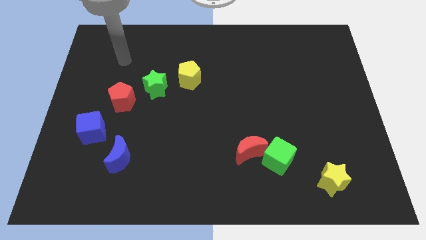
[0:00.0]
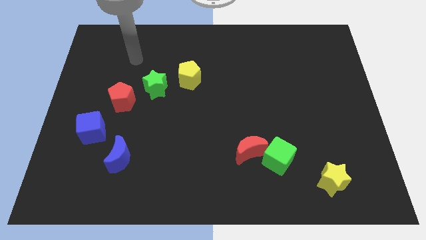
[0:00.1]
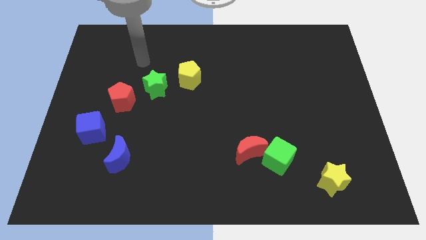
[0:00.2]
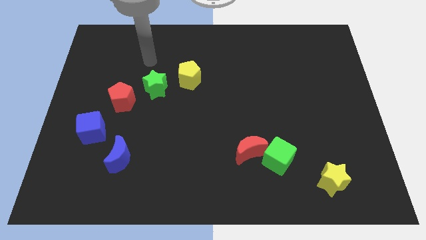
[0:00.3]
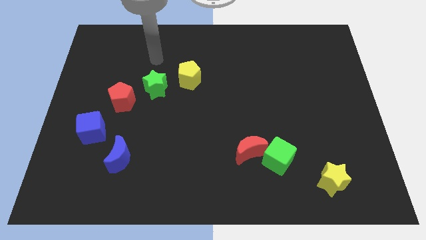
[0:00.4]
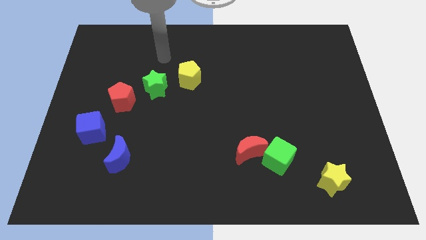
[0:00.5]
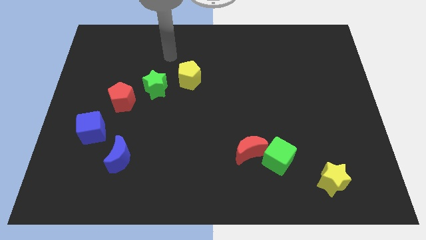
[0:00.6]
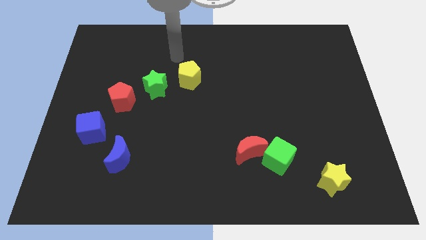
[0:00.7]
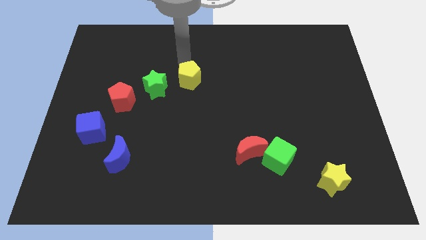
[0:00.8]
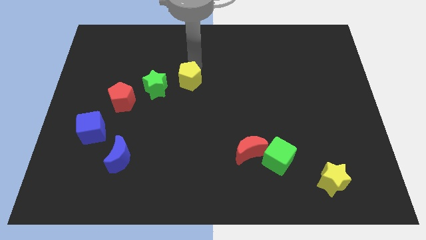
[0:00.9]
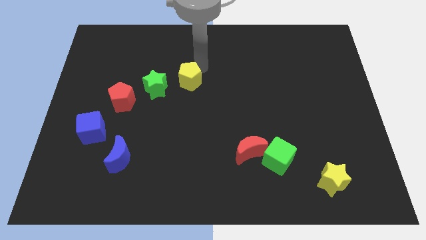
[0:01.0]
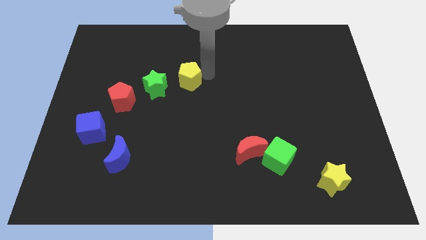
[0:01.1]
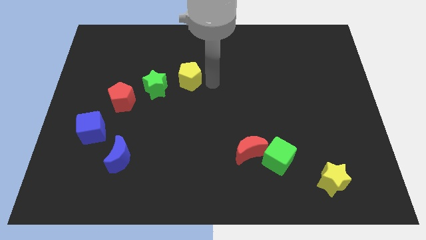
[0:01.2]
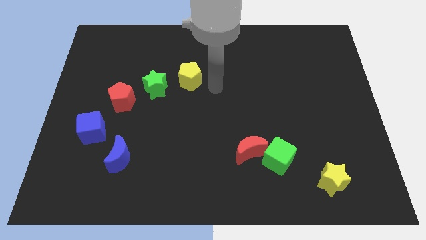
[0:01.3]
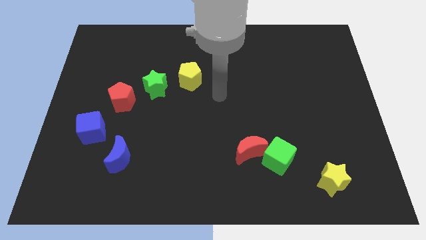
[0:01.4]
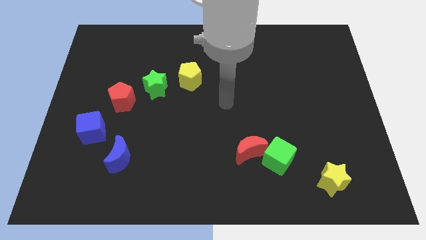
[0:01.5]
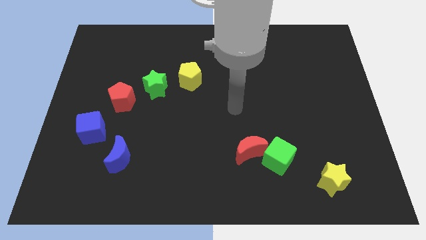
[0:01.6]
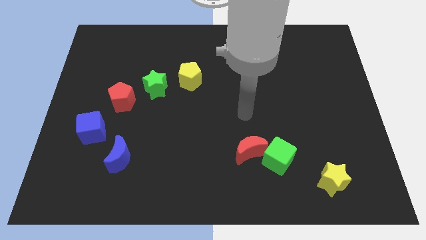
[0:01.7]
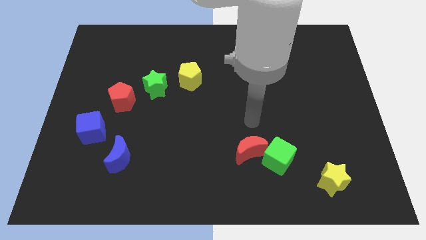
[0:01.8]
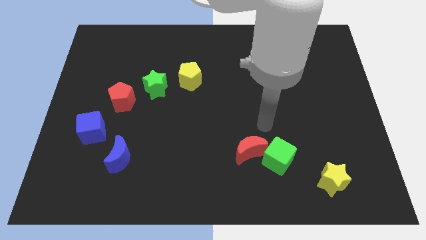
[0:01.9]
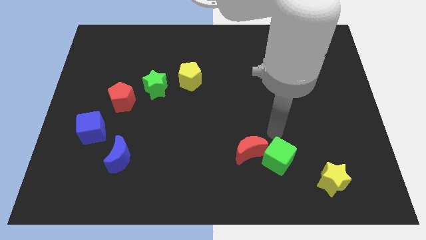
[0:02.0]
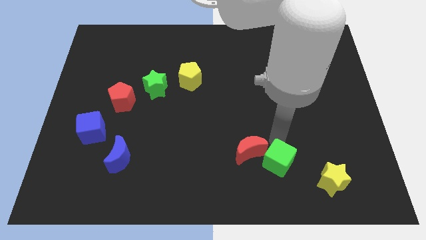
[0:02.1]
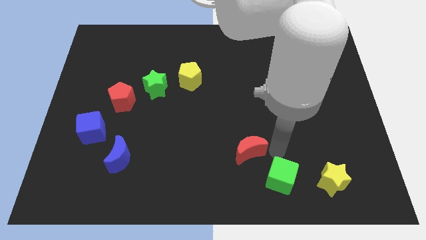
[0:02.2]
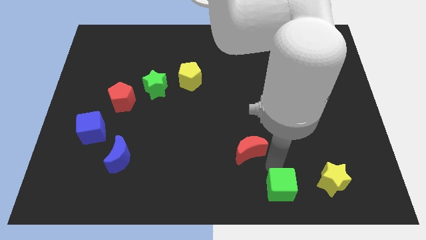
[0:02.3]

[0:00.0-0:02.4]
move the red moon away from the green cube

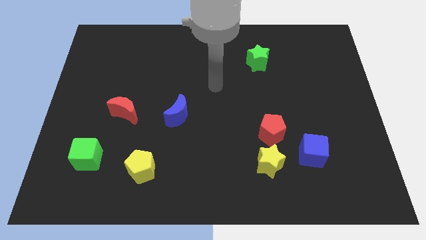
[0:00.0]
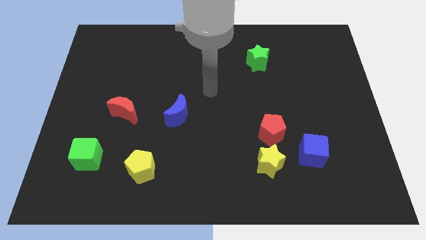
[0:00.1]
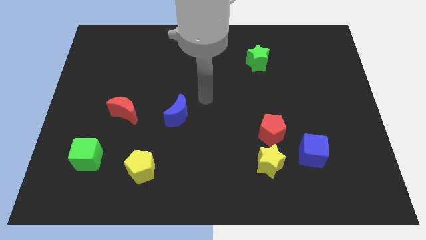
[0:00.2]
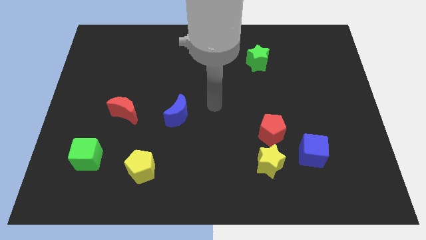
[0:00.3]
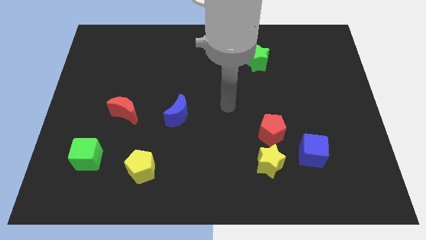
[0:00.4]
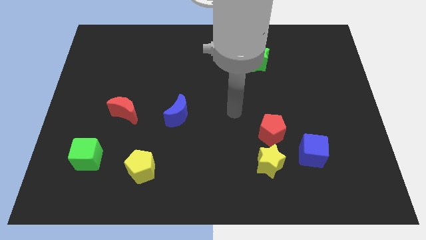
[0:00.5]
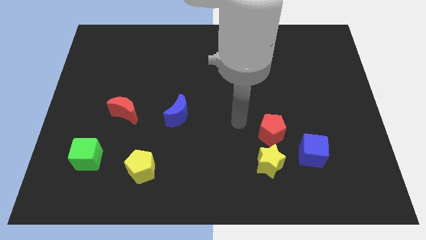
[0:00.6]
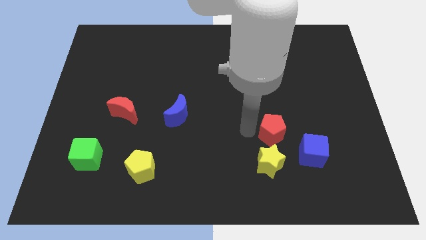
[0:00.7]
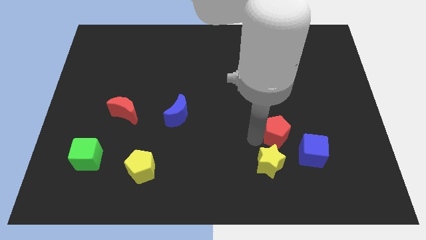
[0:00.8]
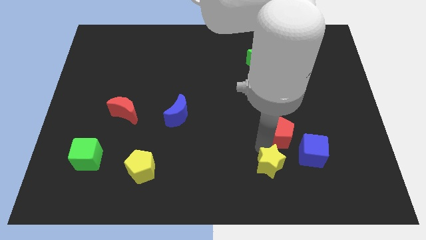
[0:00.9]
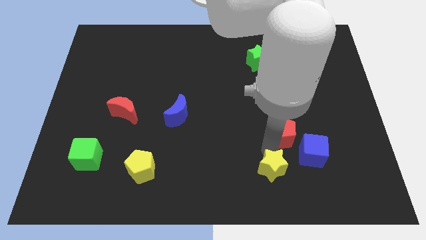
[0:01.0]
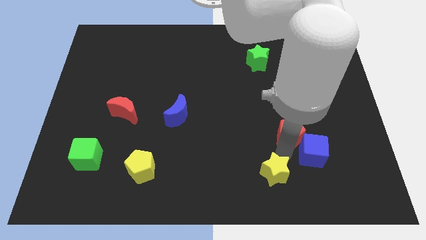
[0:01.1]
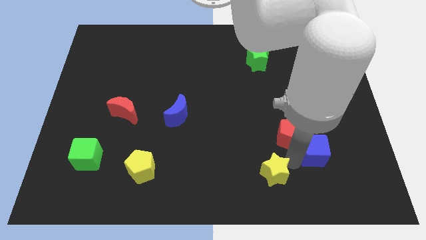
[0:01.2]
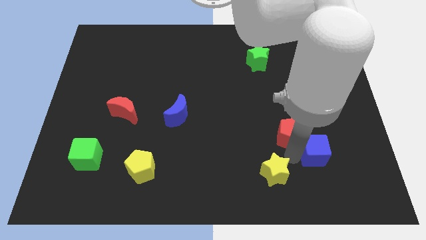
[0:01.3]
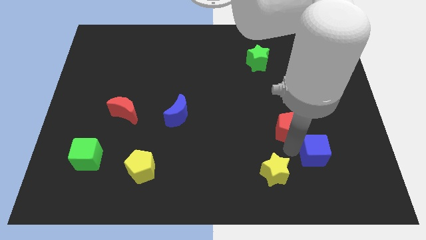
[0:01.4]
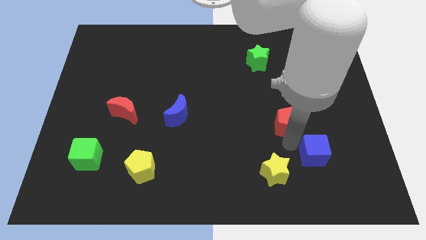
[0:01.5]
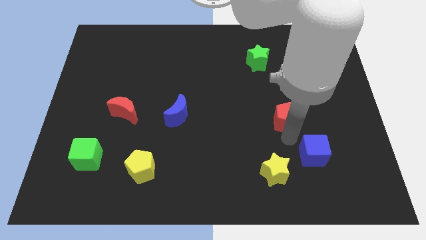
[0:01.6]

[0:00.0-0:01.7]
separate the red pentagon from the yellow star and blue cube

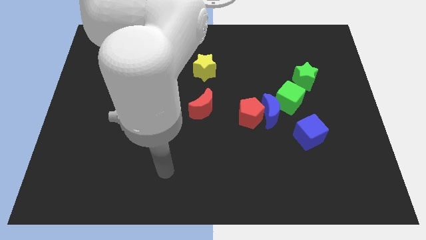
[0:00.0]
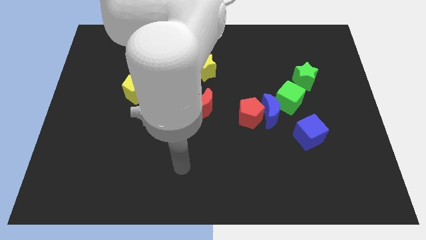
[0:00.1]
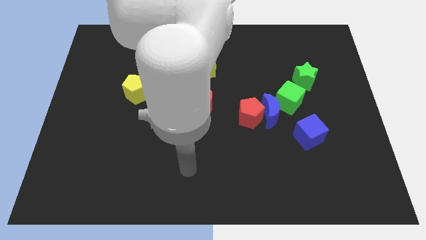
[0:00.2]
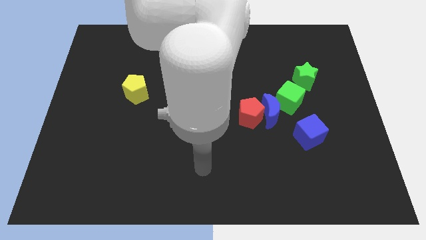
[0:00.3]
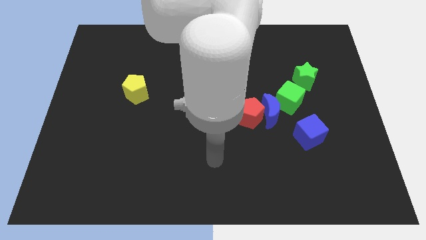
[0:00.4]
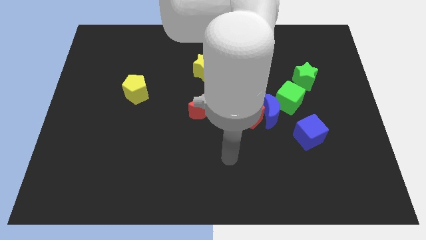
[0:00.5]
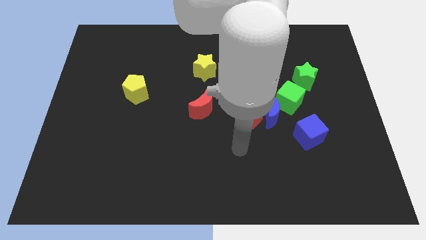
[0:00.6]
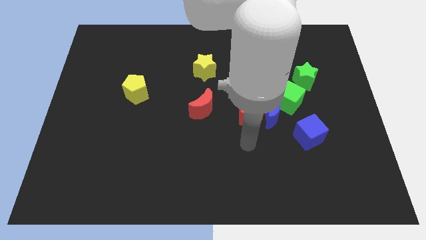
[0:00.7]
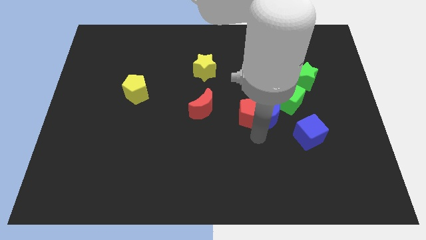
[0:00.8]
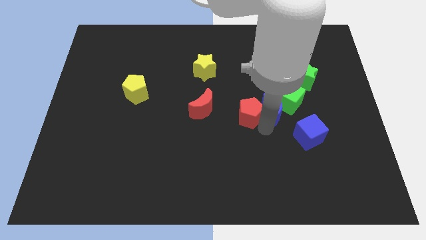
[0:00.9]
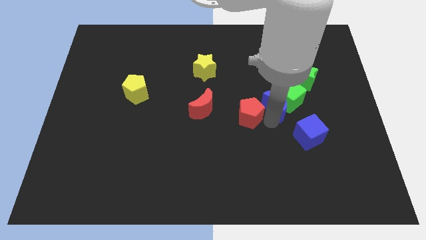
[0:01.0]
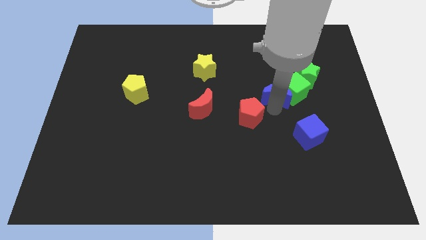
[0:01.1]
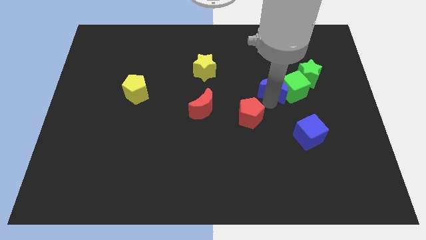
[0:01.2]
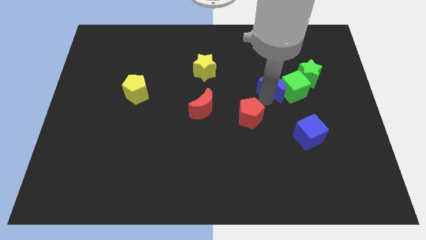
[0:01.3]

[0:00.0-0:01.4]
separate the red pentagon from the blue moon

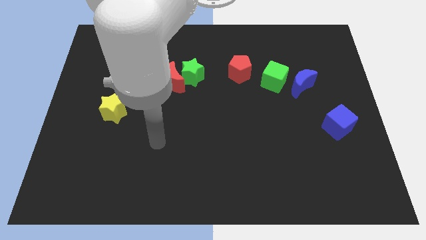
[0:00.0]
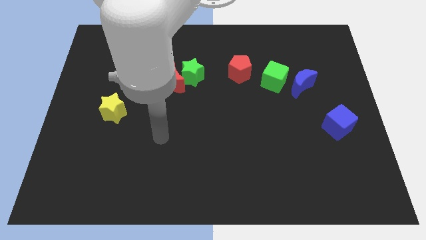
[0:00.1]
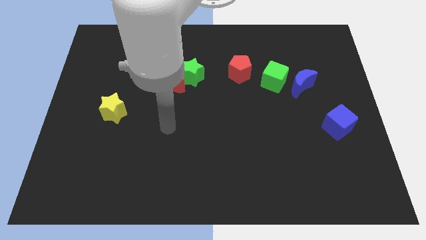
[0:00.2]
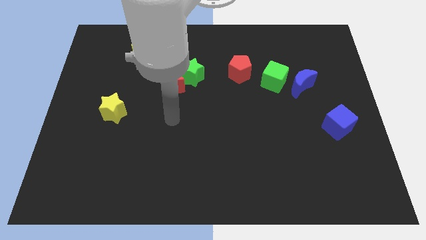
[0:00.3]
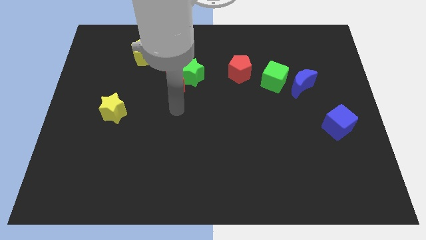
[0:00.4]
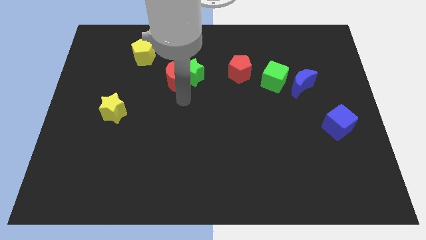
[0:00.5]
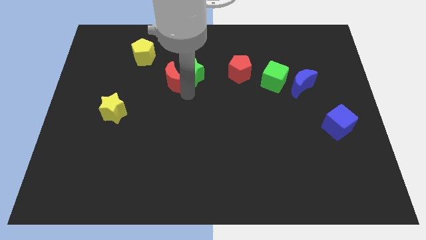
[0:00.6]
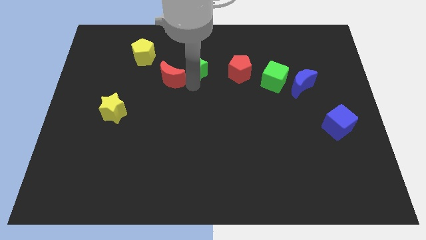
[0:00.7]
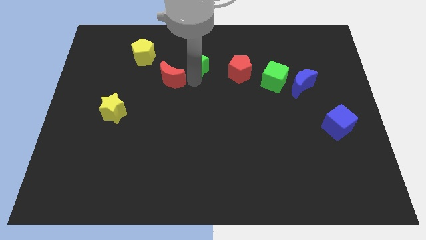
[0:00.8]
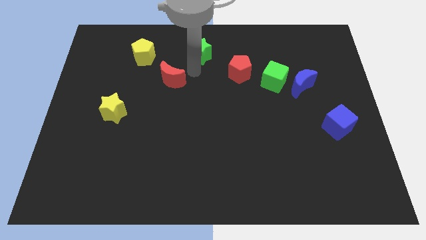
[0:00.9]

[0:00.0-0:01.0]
pull the red moon apart from the green star

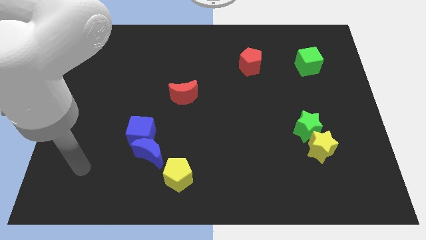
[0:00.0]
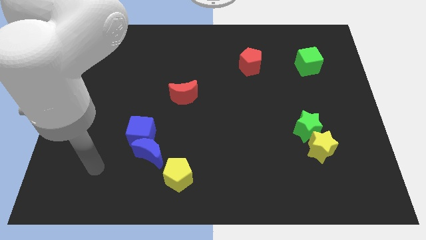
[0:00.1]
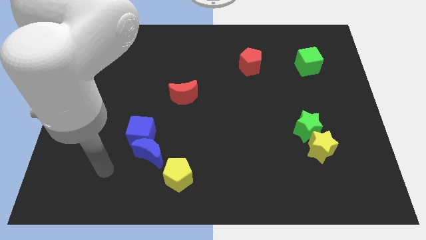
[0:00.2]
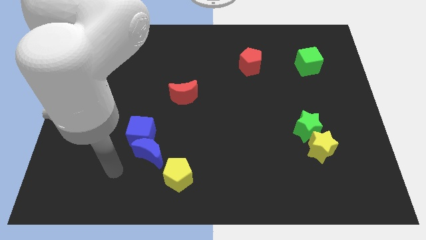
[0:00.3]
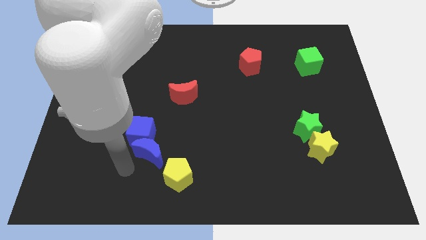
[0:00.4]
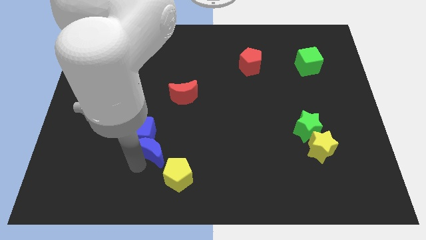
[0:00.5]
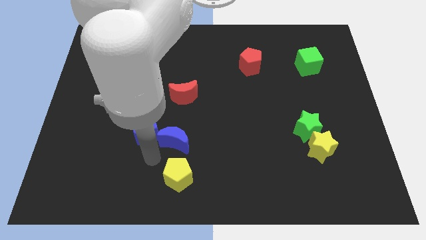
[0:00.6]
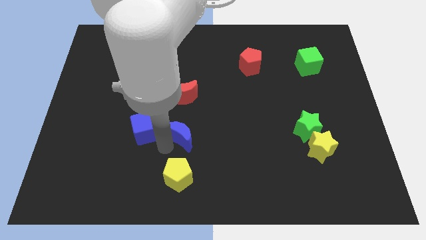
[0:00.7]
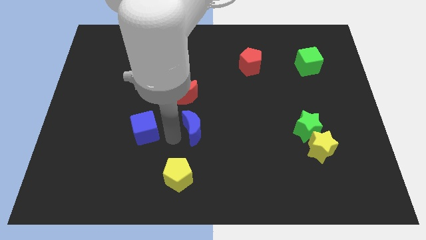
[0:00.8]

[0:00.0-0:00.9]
pull the blue cube apart from the blue moon

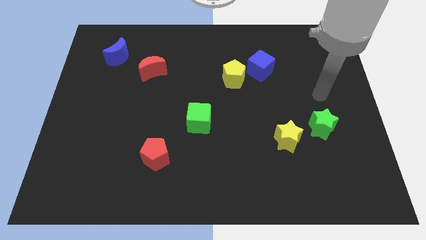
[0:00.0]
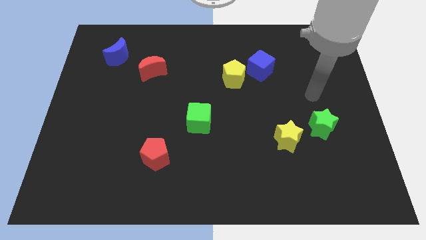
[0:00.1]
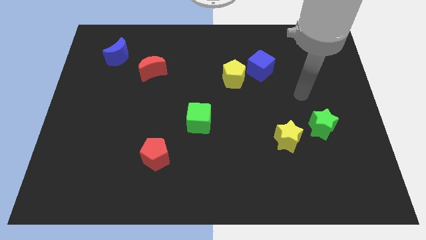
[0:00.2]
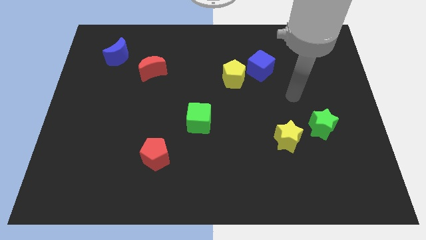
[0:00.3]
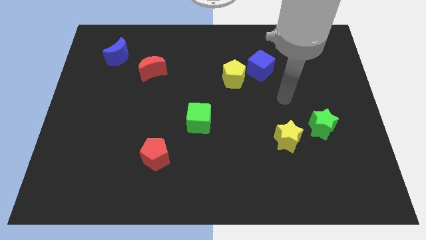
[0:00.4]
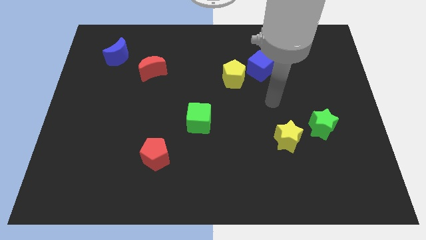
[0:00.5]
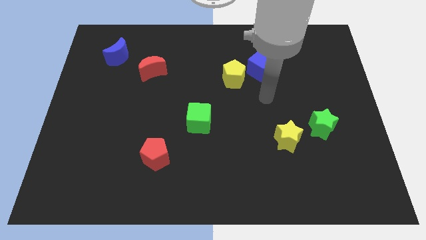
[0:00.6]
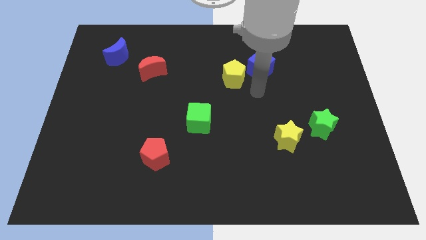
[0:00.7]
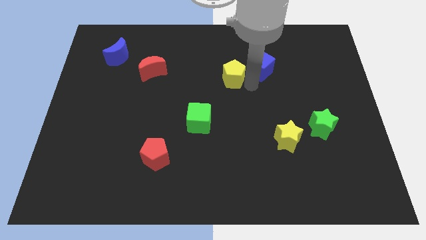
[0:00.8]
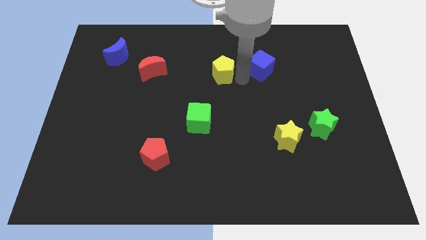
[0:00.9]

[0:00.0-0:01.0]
move the blue cube away from the yellow pentagon

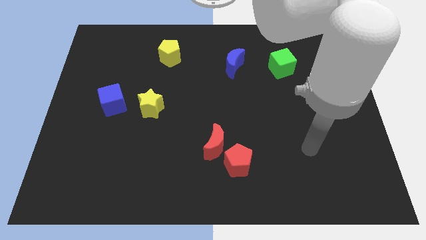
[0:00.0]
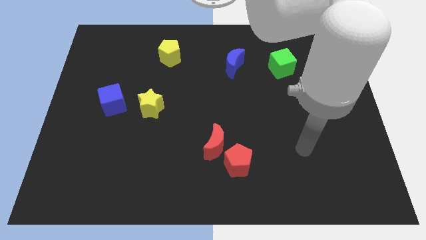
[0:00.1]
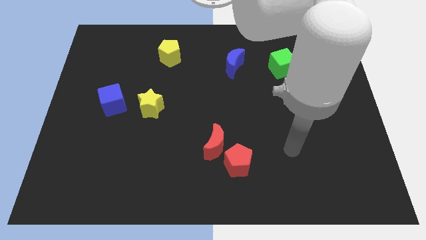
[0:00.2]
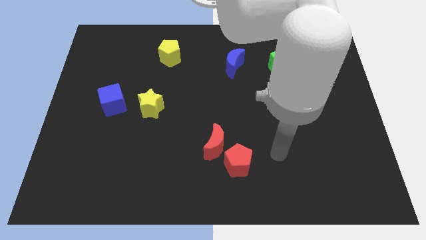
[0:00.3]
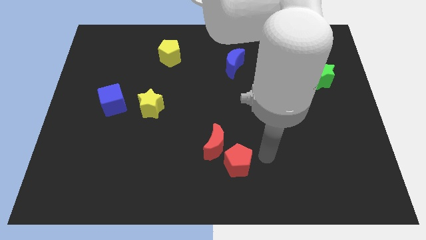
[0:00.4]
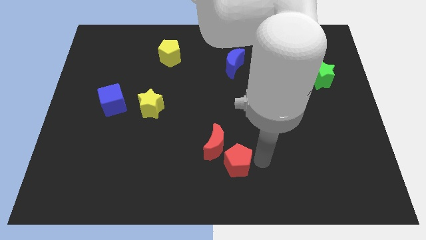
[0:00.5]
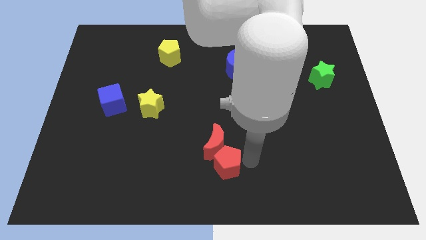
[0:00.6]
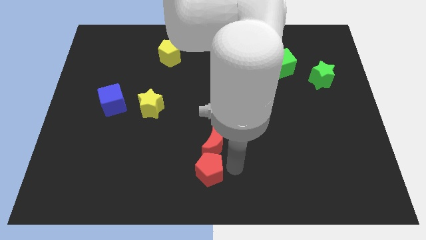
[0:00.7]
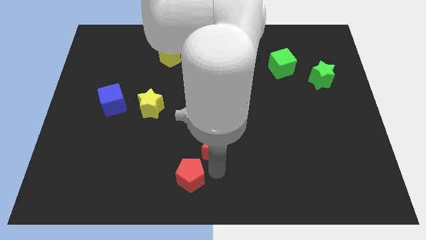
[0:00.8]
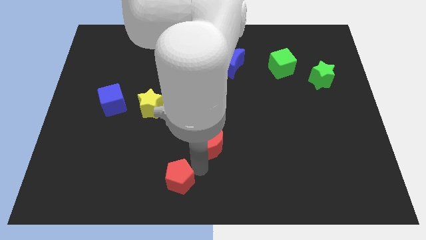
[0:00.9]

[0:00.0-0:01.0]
pull the red moon apart from the red pentagon
